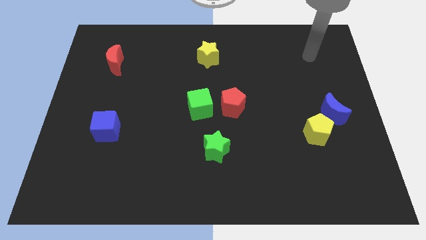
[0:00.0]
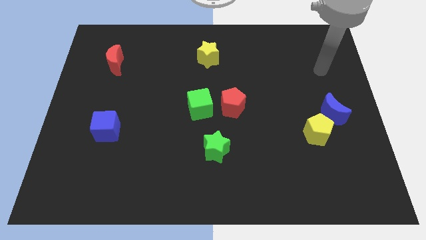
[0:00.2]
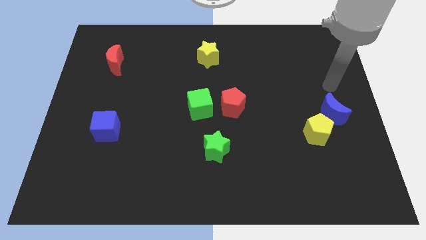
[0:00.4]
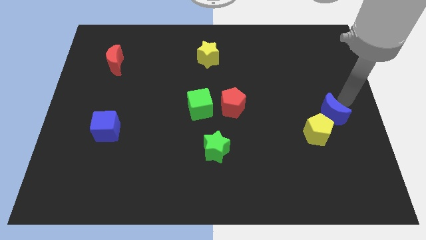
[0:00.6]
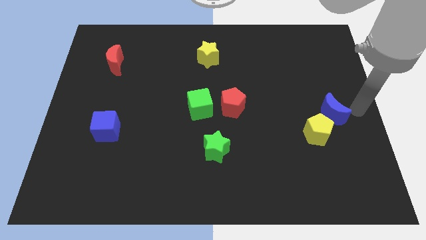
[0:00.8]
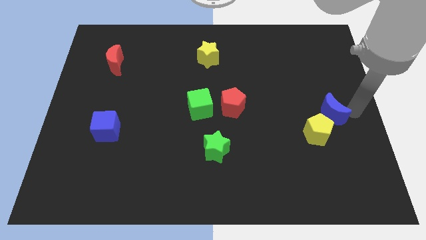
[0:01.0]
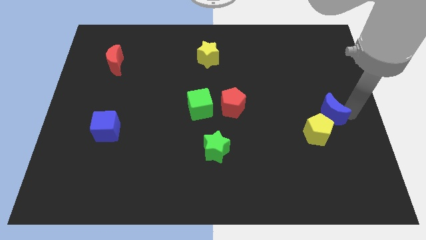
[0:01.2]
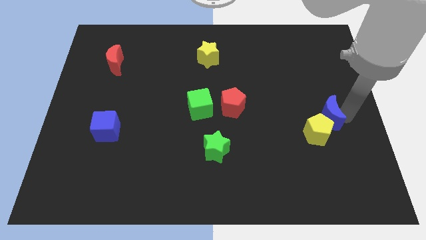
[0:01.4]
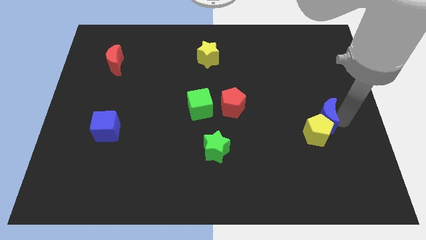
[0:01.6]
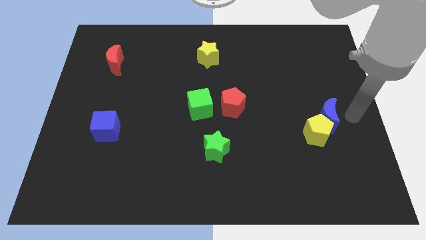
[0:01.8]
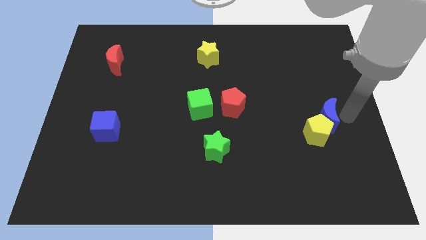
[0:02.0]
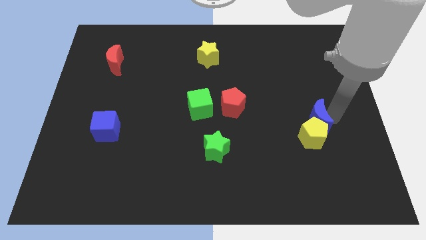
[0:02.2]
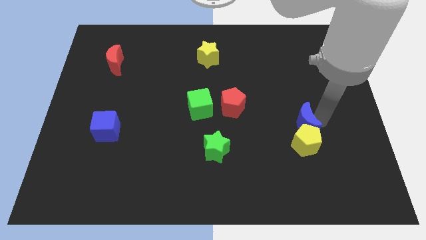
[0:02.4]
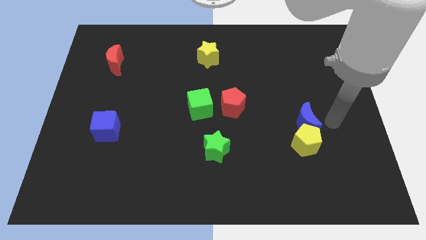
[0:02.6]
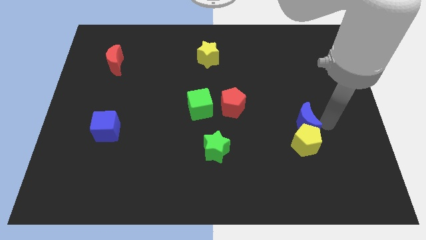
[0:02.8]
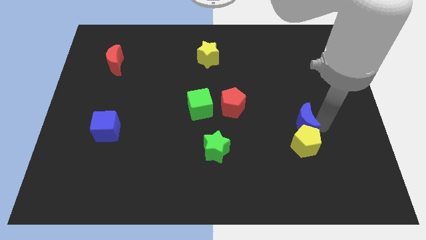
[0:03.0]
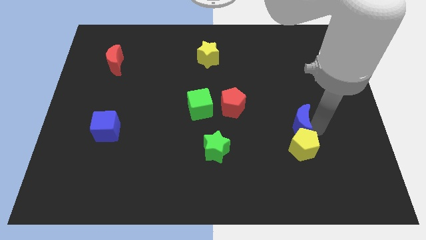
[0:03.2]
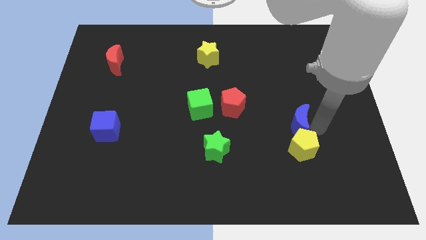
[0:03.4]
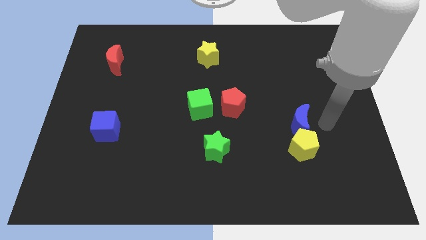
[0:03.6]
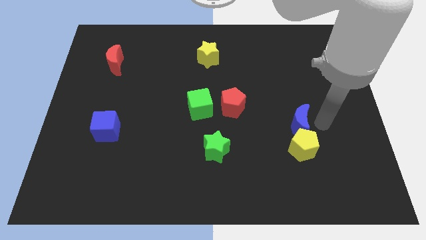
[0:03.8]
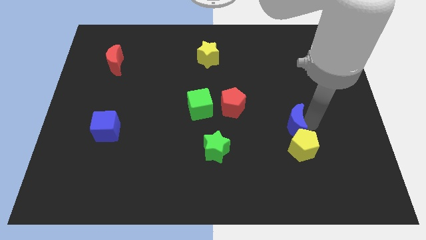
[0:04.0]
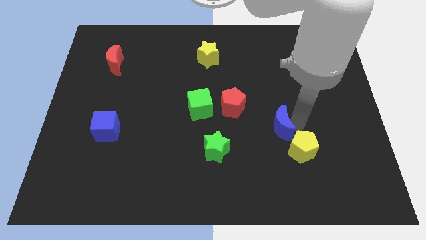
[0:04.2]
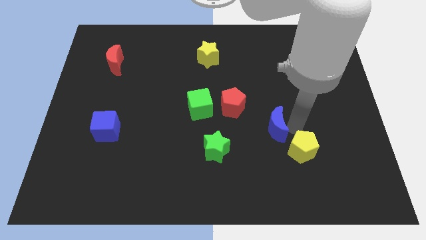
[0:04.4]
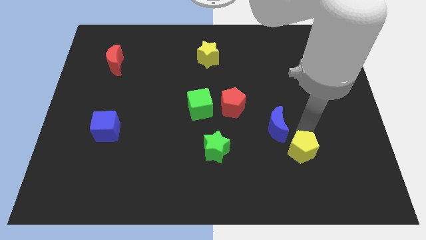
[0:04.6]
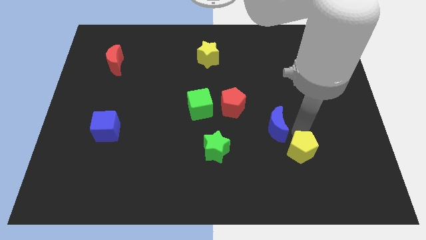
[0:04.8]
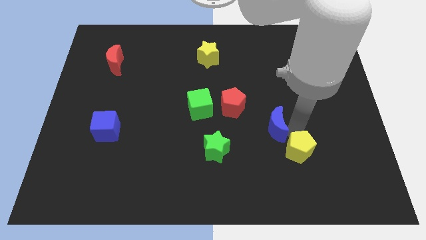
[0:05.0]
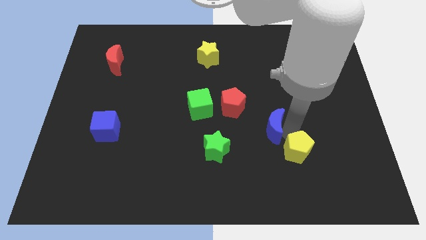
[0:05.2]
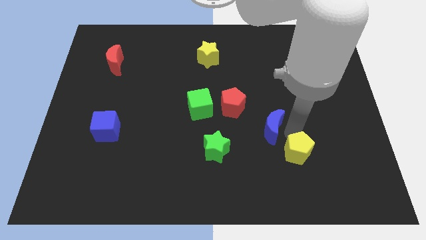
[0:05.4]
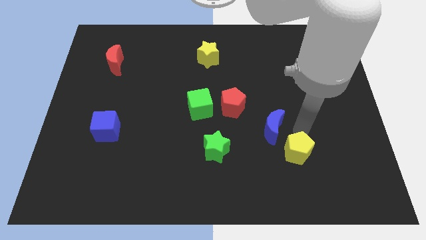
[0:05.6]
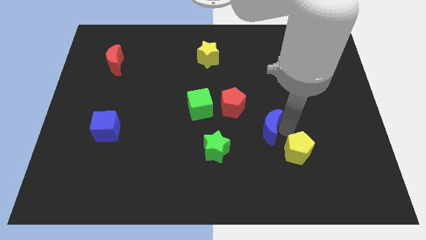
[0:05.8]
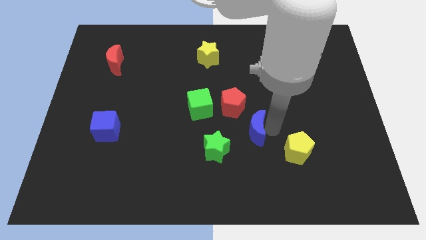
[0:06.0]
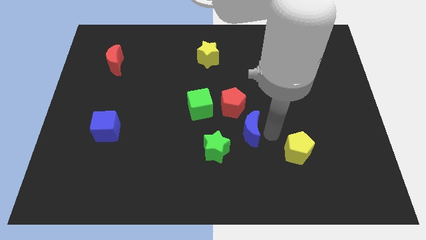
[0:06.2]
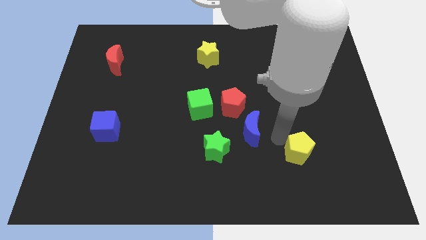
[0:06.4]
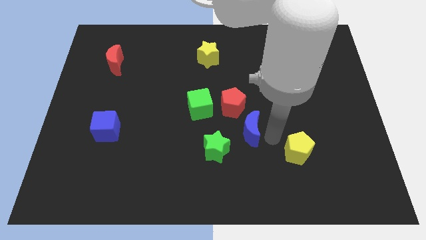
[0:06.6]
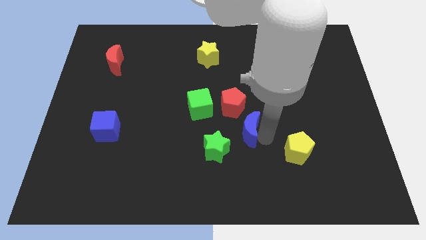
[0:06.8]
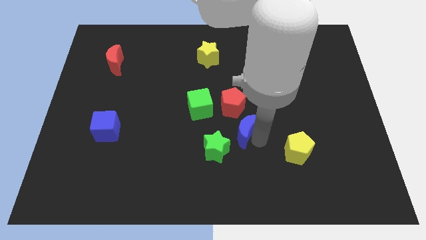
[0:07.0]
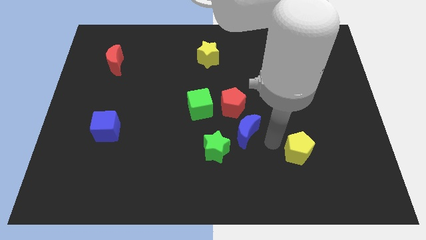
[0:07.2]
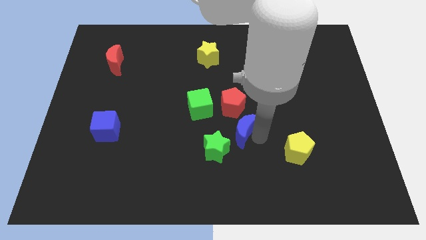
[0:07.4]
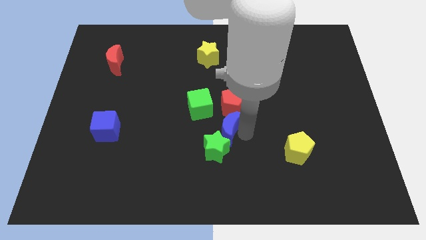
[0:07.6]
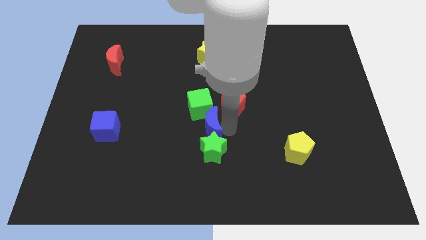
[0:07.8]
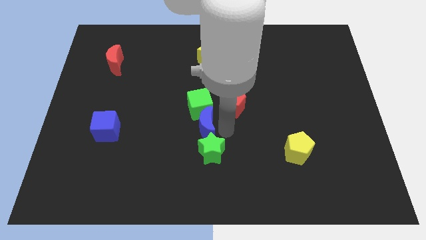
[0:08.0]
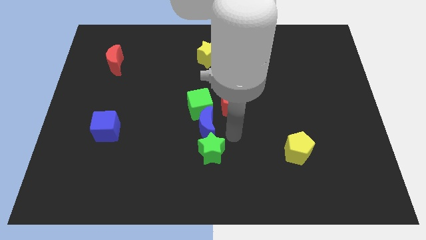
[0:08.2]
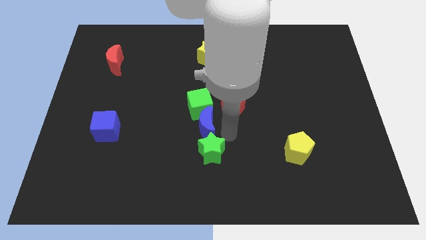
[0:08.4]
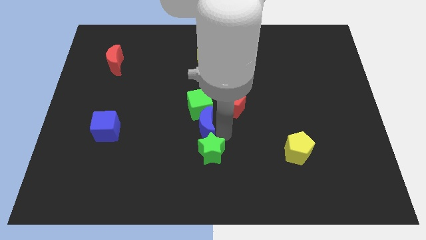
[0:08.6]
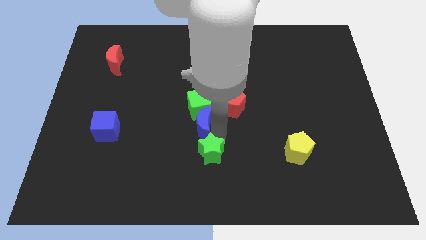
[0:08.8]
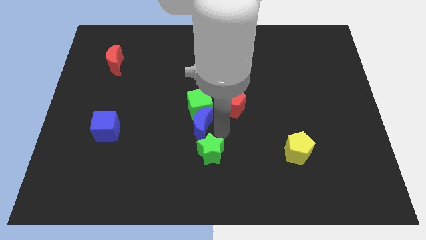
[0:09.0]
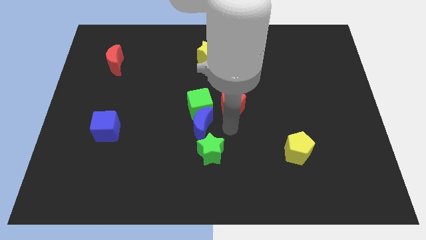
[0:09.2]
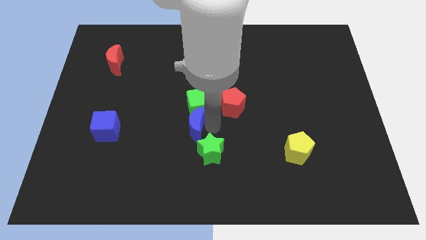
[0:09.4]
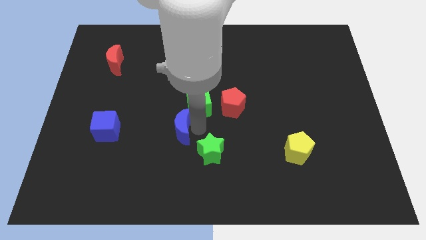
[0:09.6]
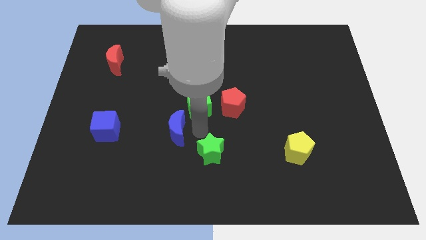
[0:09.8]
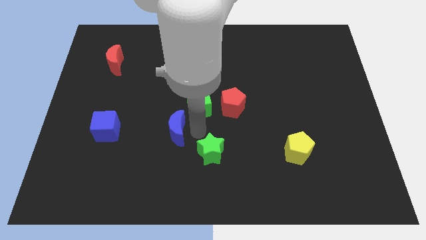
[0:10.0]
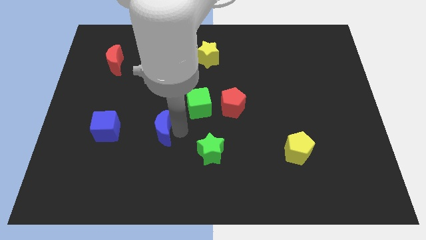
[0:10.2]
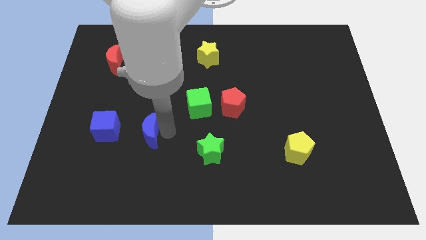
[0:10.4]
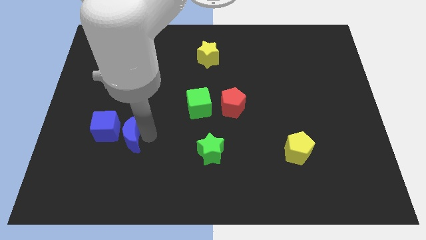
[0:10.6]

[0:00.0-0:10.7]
move the blue moon close to the blue cube
